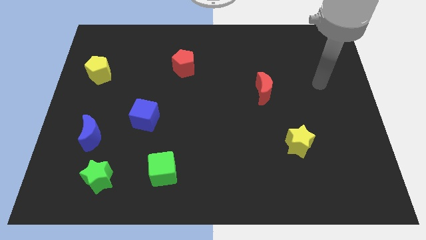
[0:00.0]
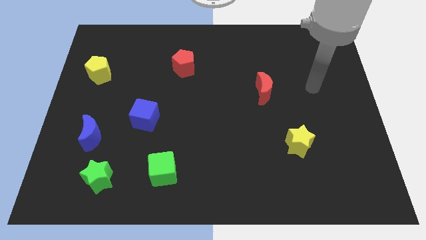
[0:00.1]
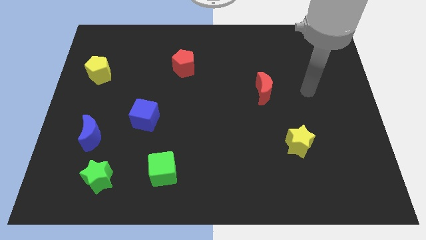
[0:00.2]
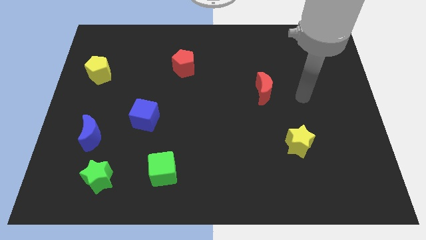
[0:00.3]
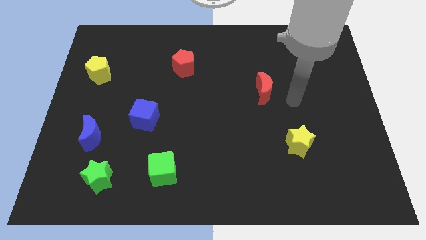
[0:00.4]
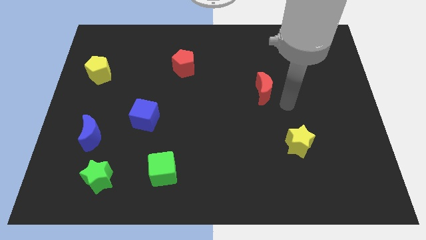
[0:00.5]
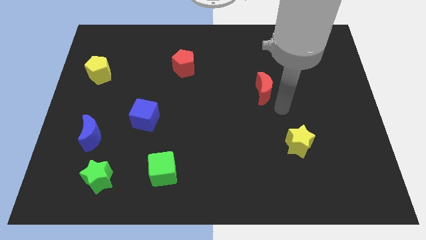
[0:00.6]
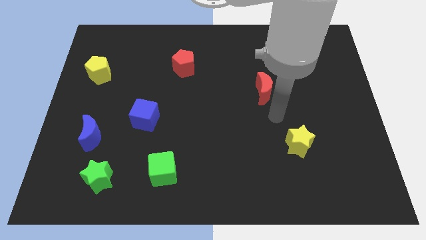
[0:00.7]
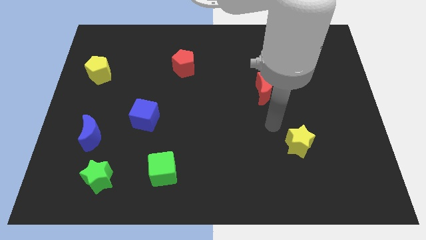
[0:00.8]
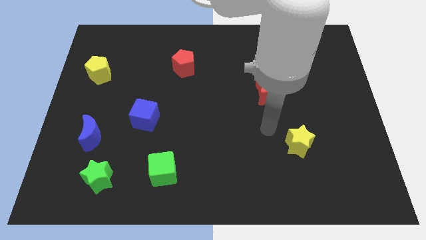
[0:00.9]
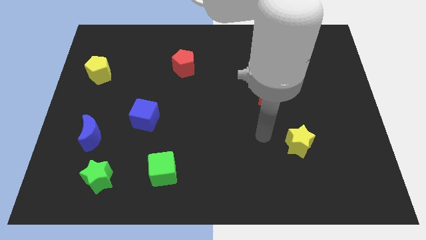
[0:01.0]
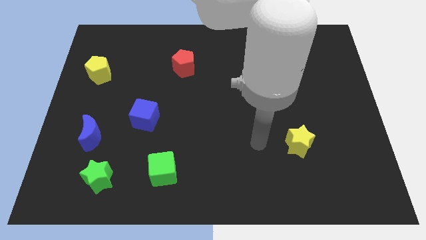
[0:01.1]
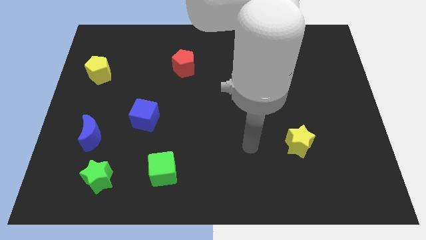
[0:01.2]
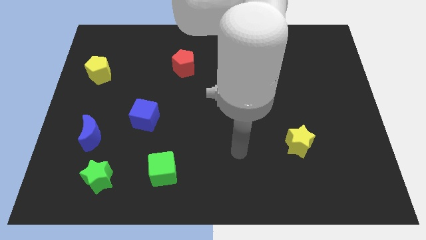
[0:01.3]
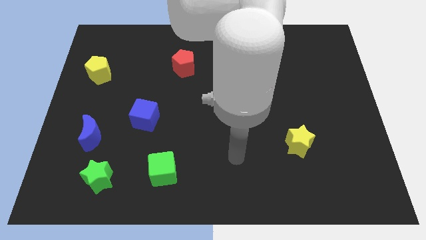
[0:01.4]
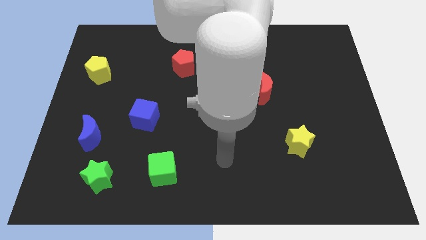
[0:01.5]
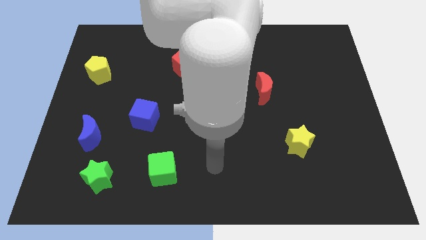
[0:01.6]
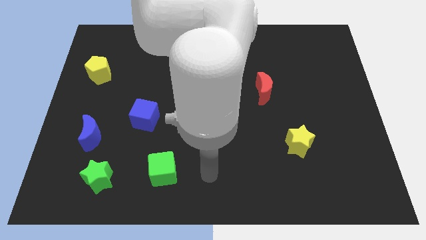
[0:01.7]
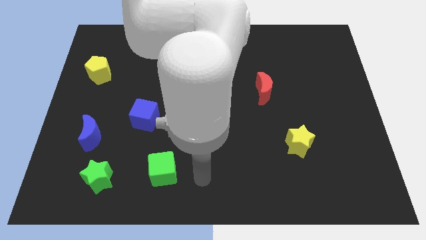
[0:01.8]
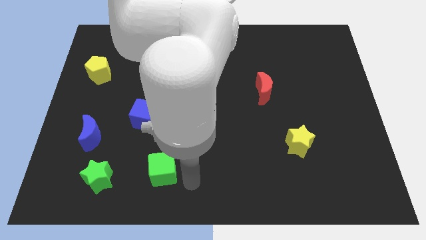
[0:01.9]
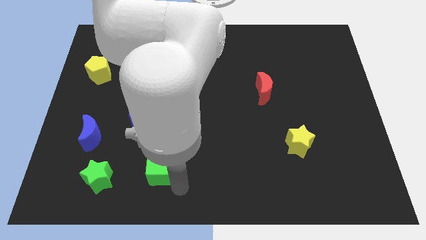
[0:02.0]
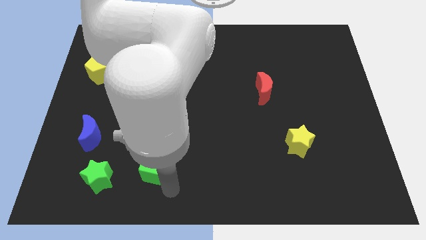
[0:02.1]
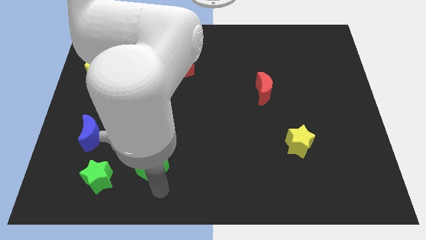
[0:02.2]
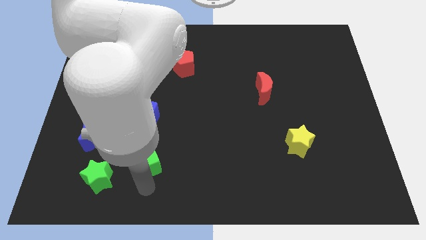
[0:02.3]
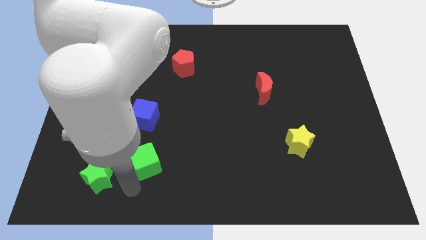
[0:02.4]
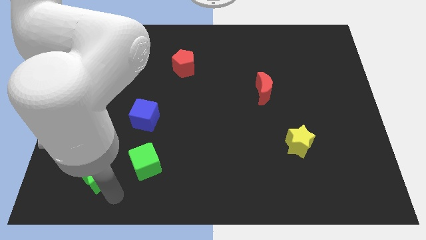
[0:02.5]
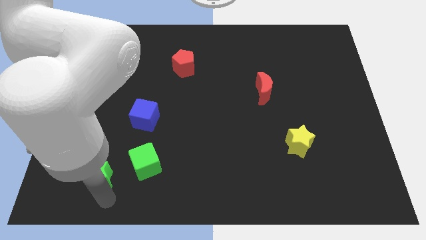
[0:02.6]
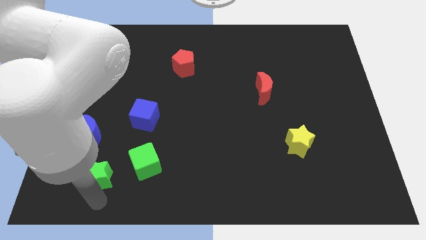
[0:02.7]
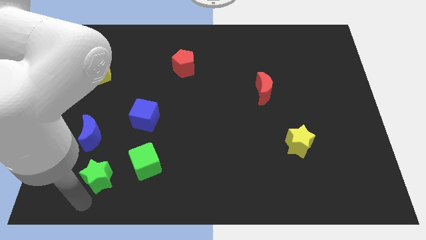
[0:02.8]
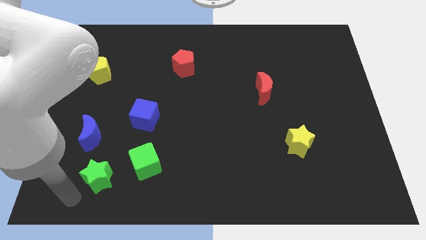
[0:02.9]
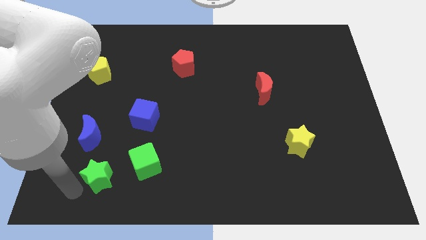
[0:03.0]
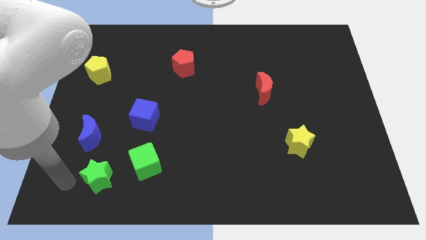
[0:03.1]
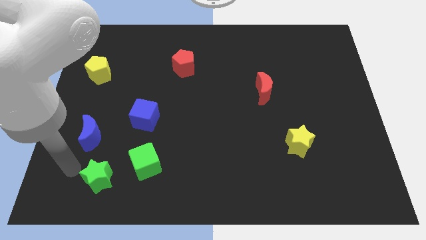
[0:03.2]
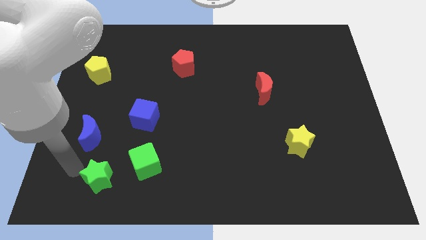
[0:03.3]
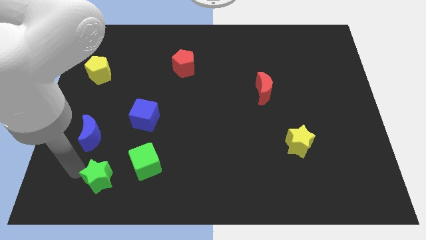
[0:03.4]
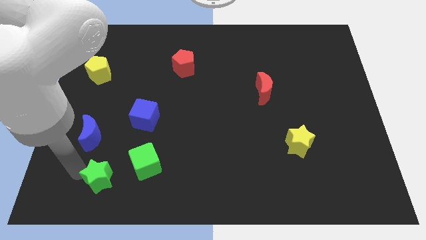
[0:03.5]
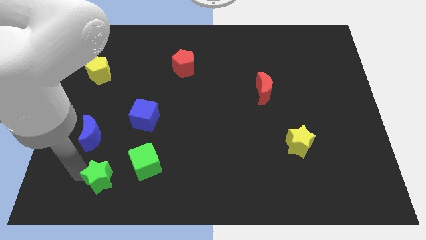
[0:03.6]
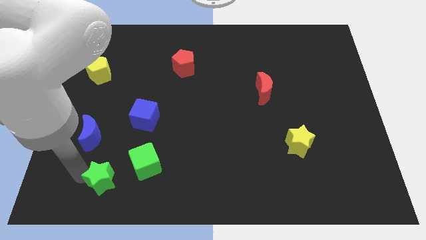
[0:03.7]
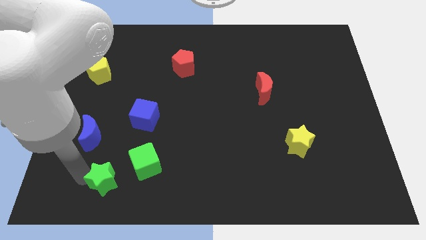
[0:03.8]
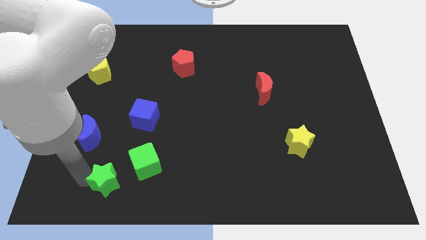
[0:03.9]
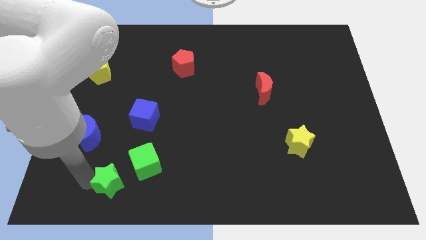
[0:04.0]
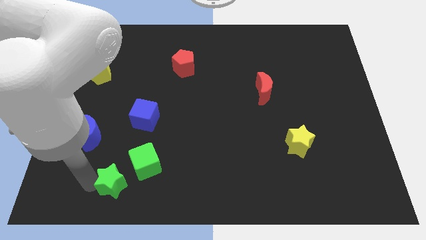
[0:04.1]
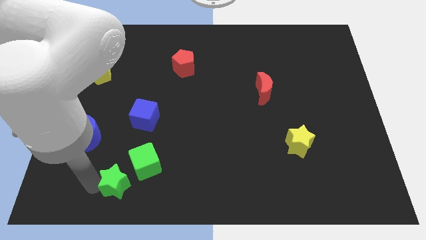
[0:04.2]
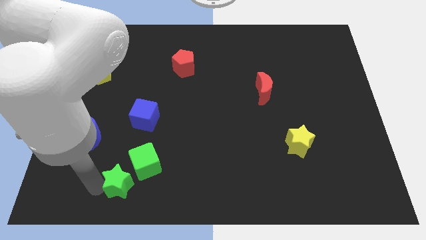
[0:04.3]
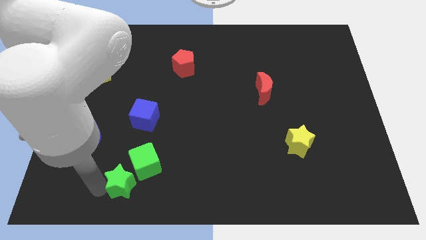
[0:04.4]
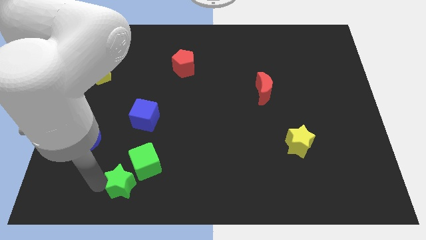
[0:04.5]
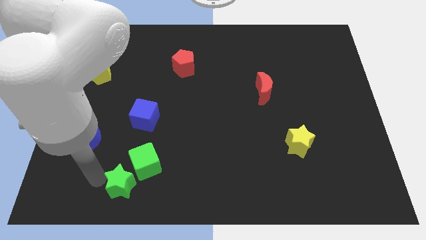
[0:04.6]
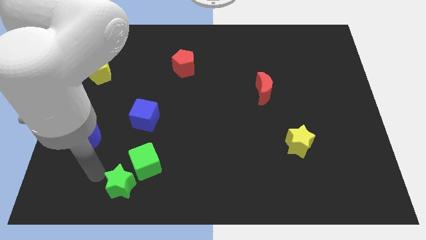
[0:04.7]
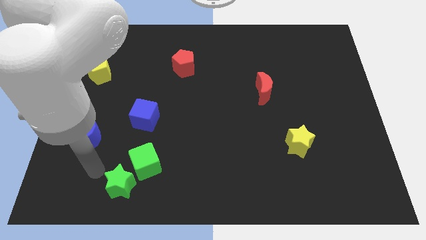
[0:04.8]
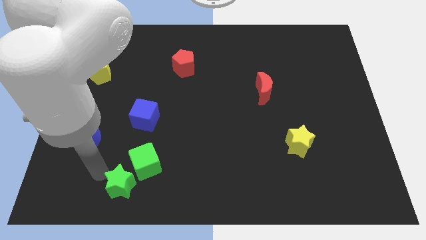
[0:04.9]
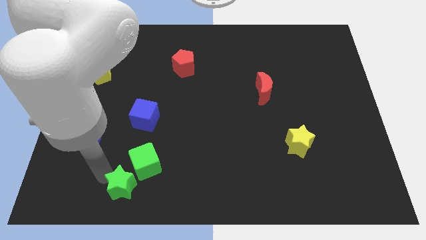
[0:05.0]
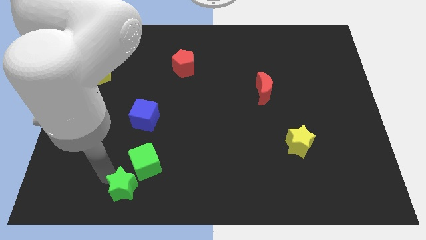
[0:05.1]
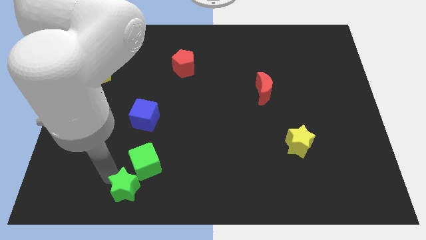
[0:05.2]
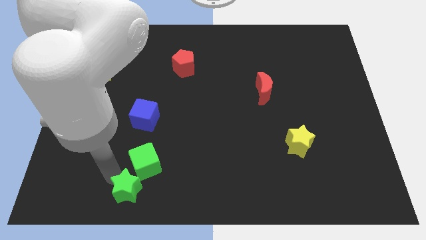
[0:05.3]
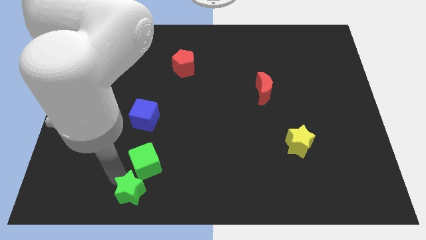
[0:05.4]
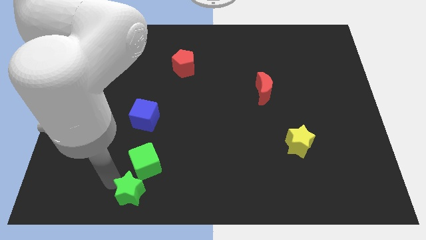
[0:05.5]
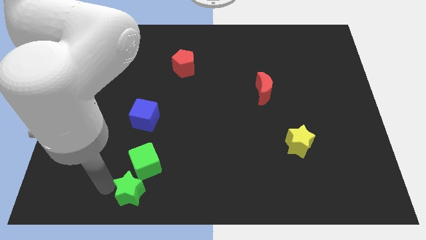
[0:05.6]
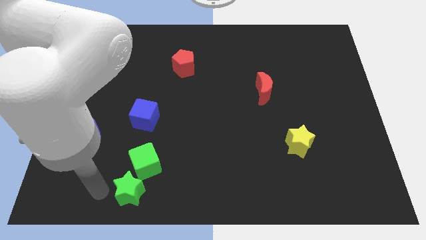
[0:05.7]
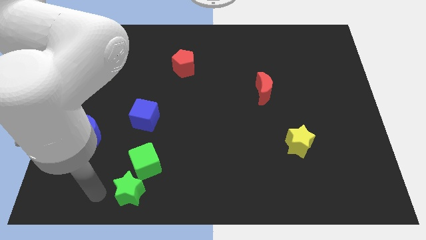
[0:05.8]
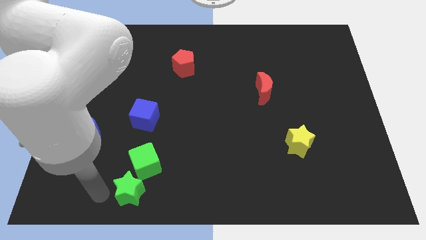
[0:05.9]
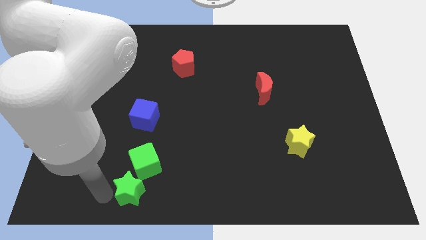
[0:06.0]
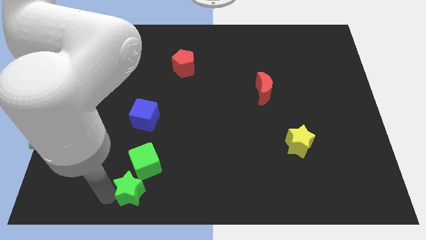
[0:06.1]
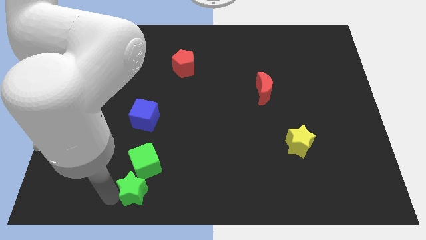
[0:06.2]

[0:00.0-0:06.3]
slide the green star to the right somewhat

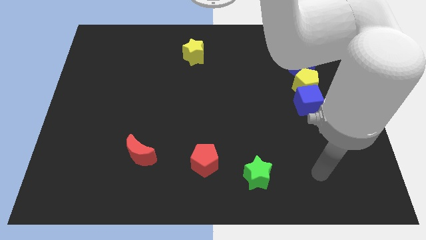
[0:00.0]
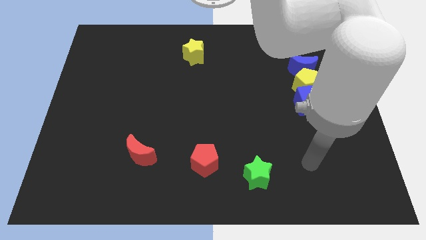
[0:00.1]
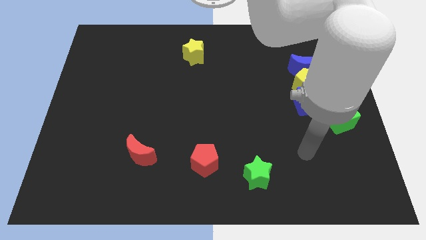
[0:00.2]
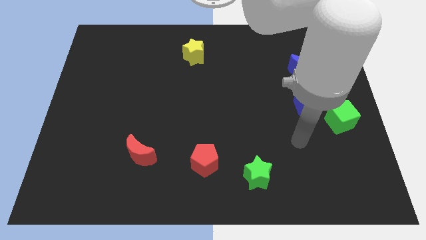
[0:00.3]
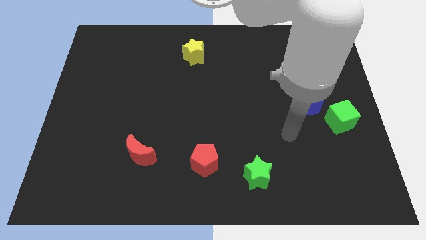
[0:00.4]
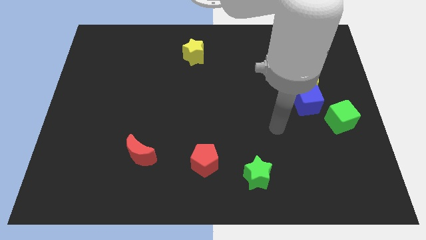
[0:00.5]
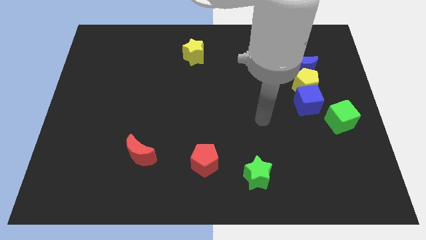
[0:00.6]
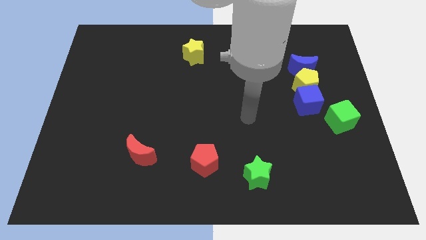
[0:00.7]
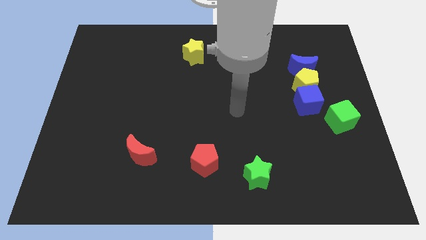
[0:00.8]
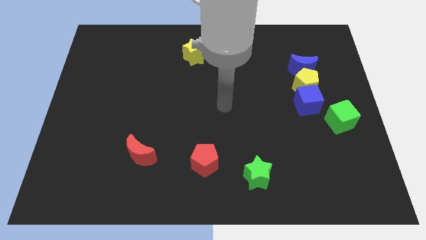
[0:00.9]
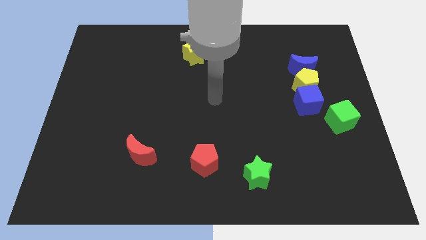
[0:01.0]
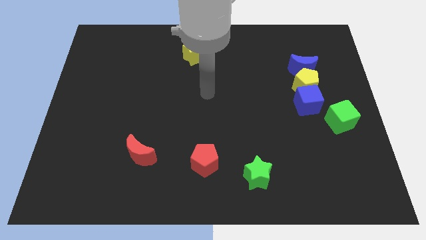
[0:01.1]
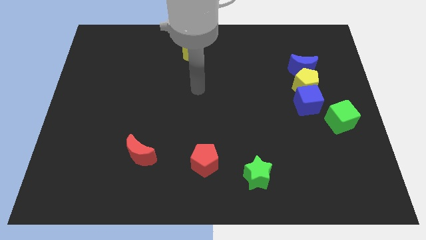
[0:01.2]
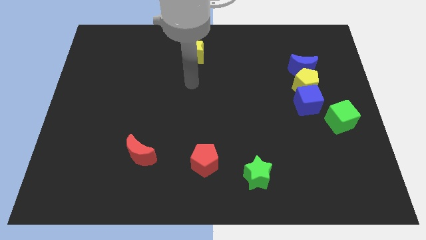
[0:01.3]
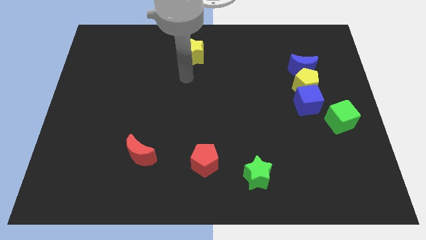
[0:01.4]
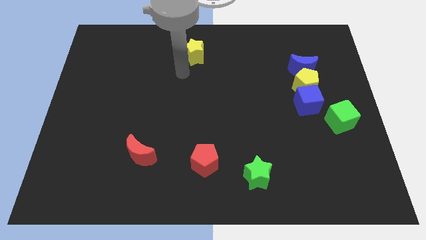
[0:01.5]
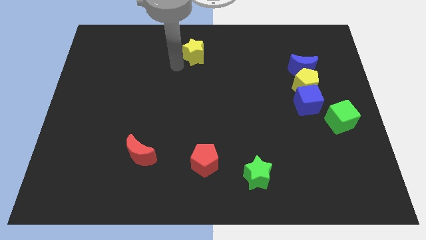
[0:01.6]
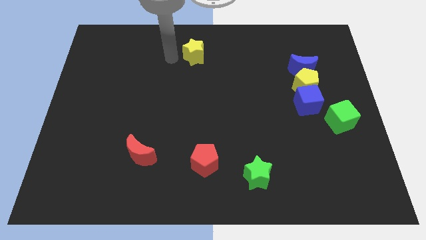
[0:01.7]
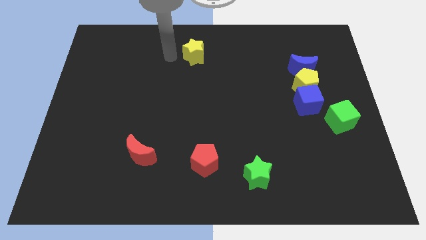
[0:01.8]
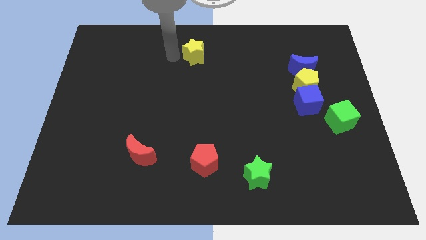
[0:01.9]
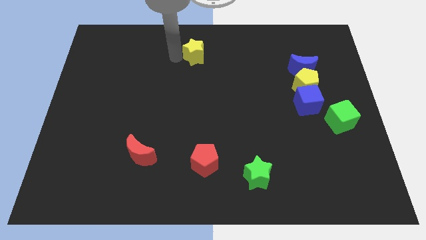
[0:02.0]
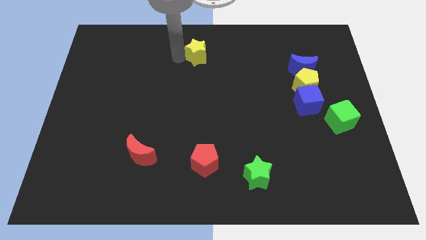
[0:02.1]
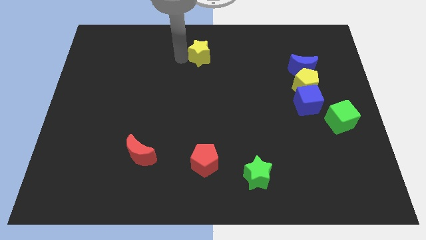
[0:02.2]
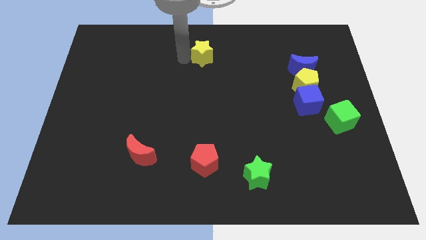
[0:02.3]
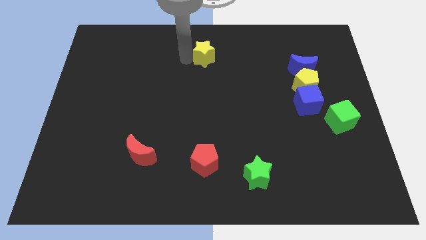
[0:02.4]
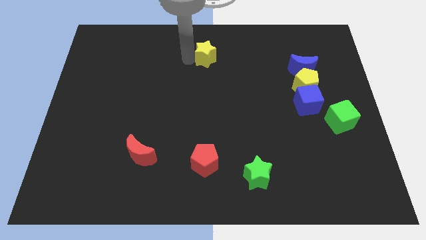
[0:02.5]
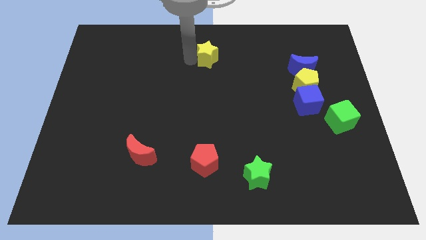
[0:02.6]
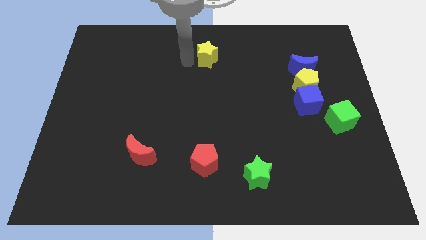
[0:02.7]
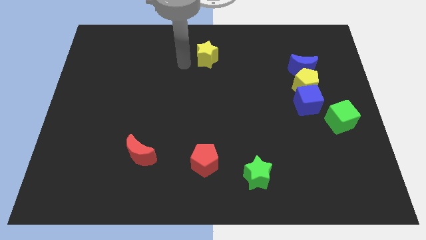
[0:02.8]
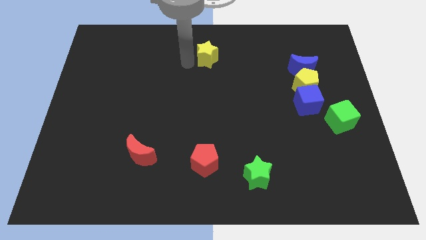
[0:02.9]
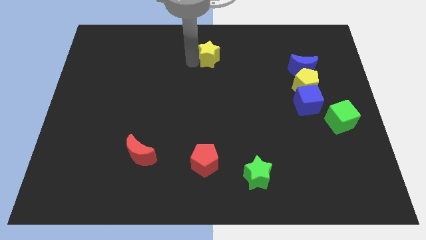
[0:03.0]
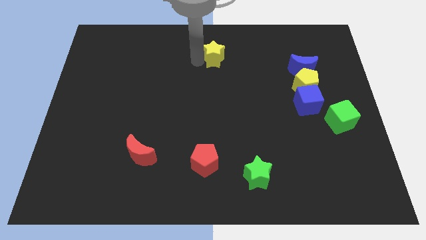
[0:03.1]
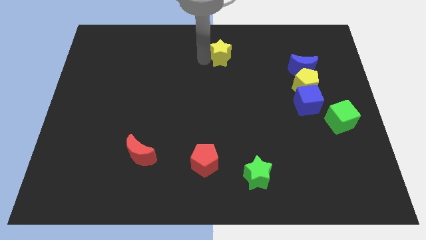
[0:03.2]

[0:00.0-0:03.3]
slide the yellow star right somewhat
